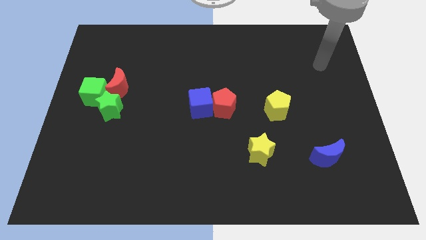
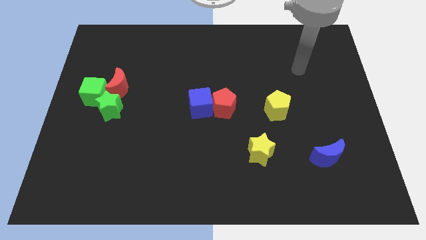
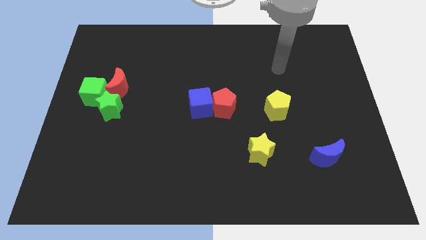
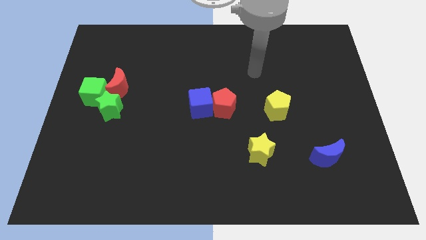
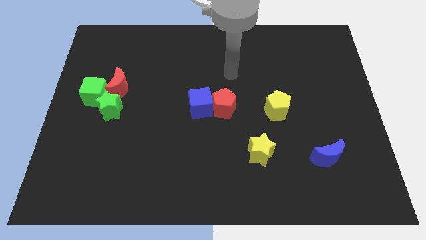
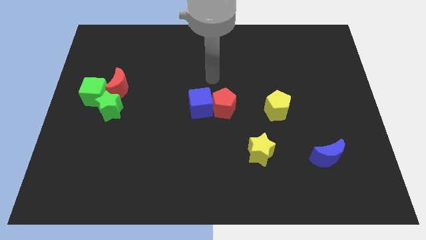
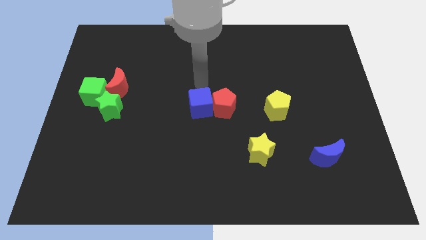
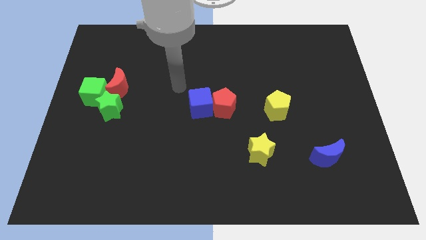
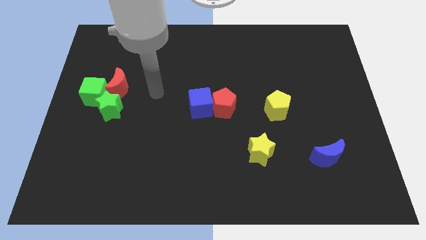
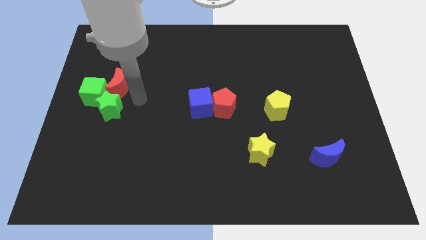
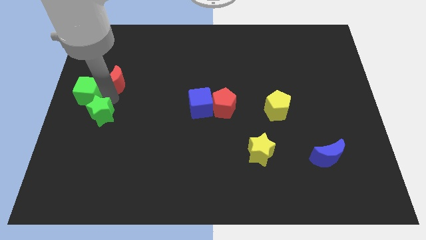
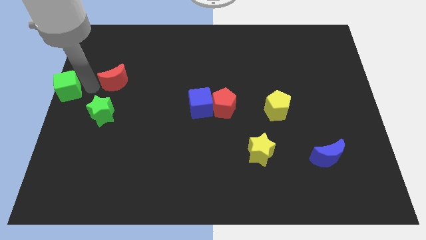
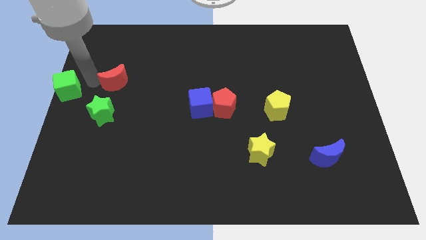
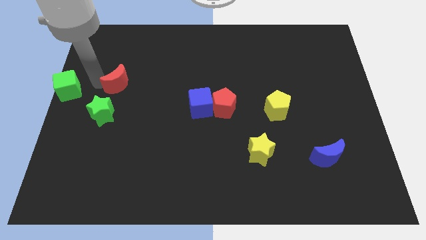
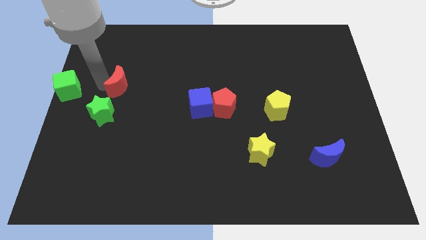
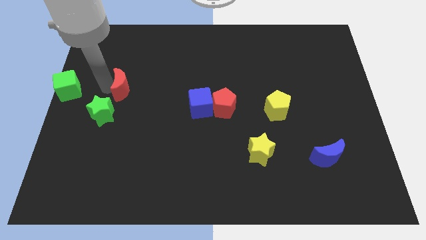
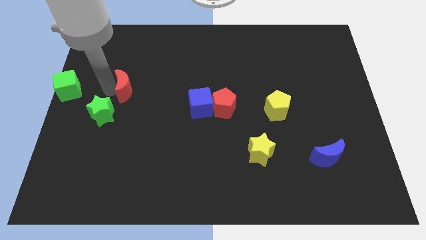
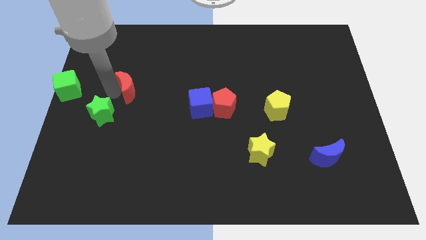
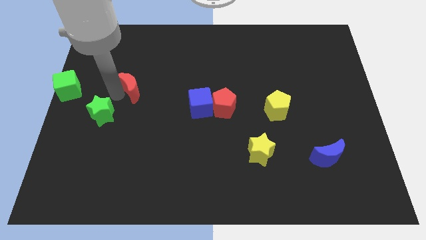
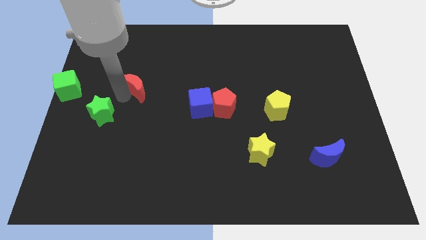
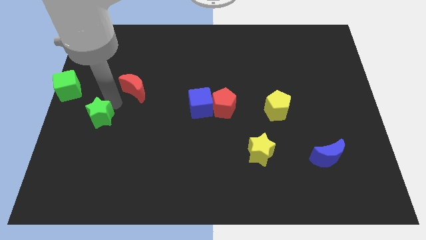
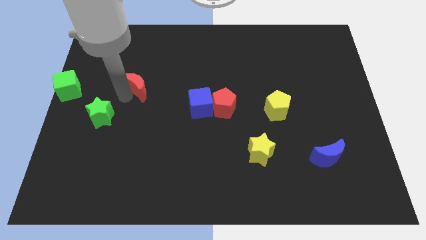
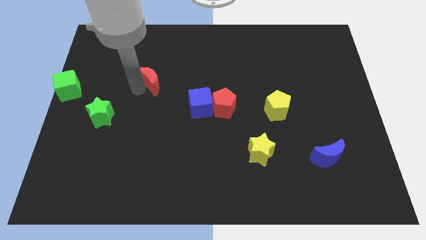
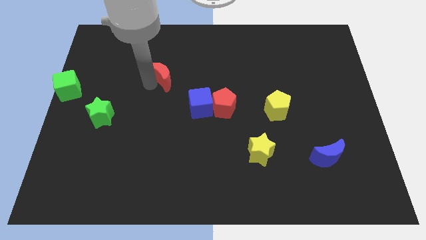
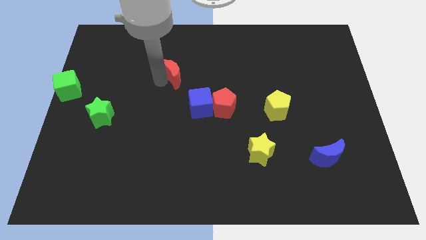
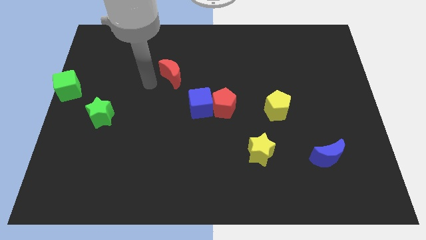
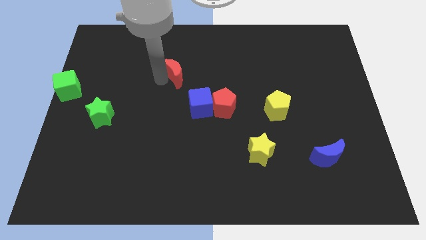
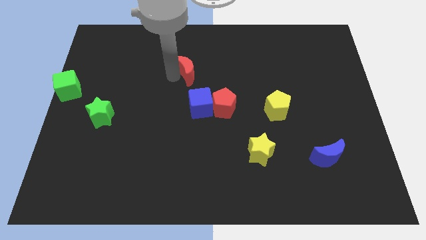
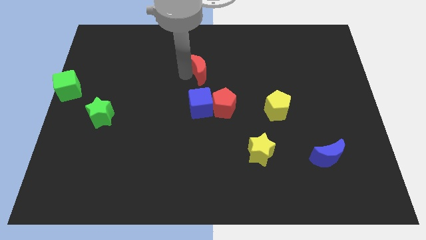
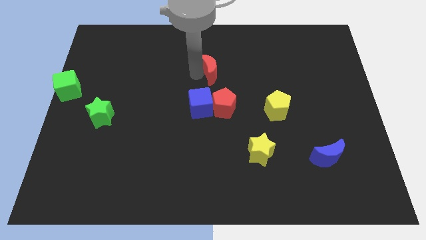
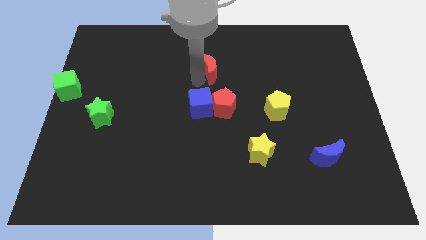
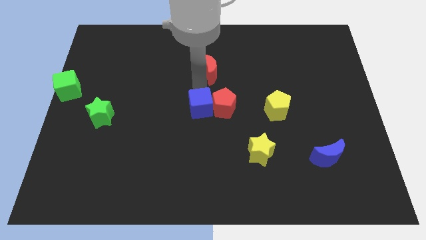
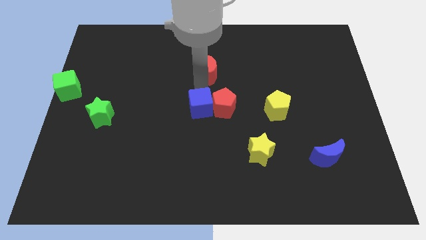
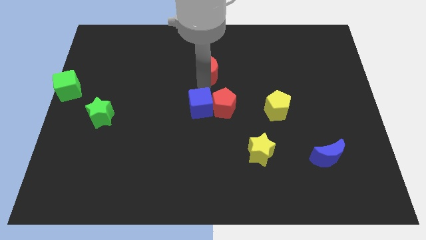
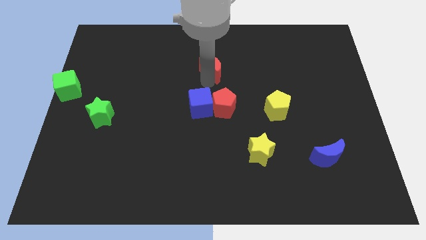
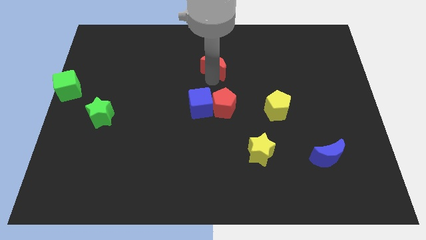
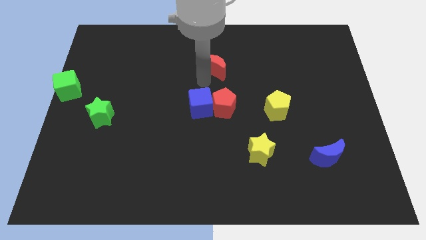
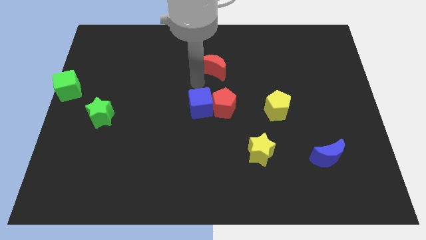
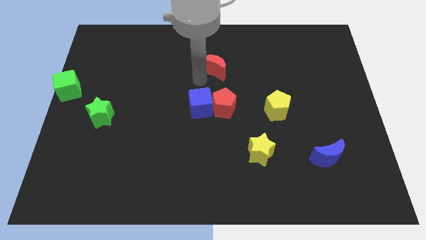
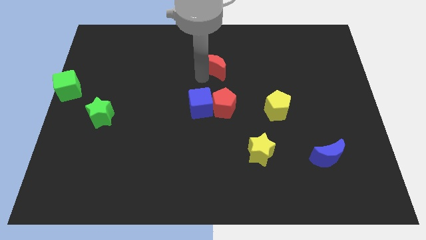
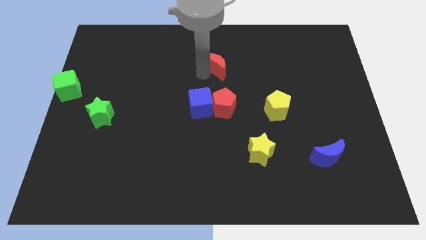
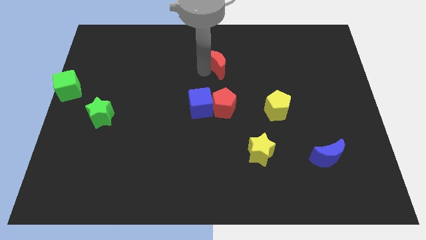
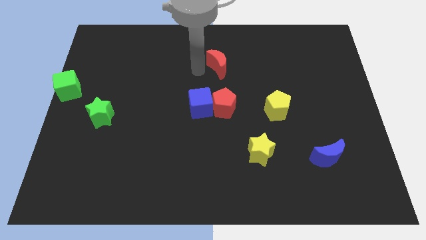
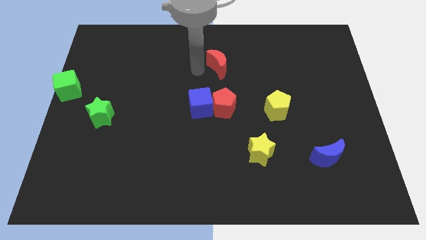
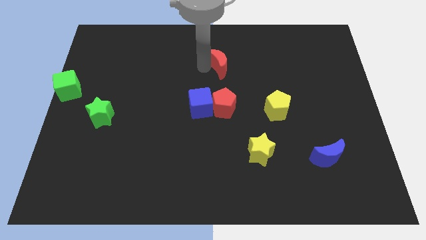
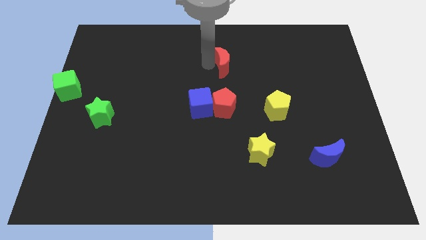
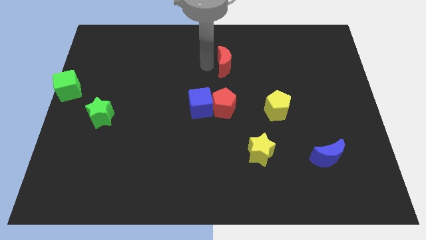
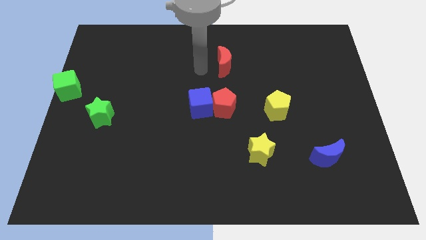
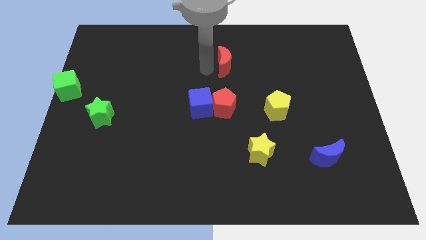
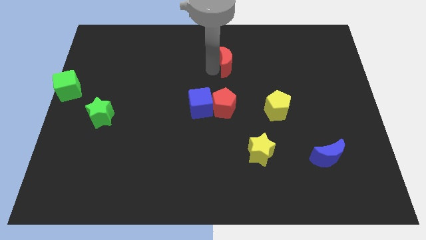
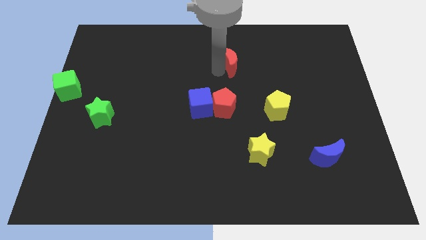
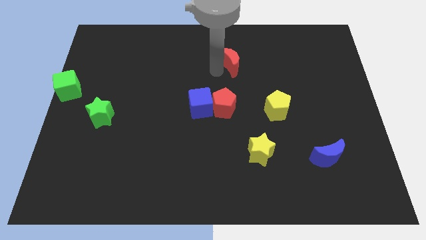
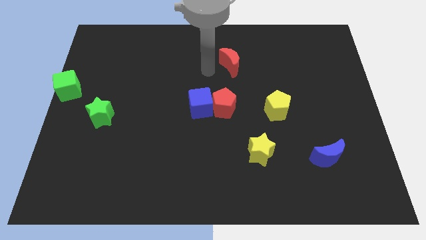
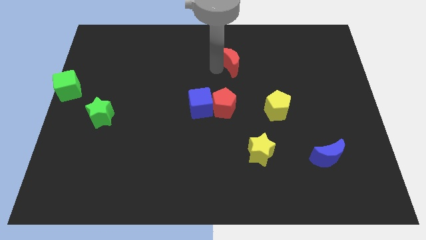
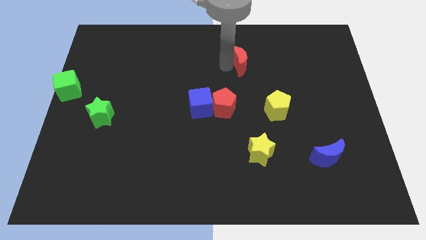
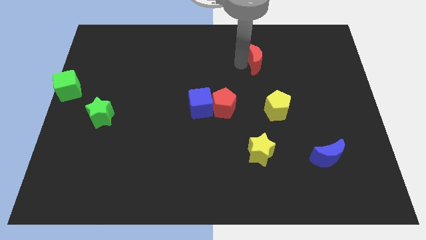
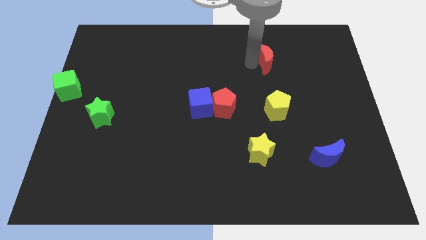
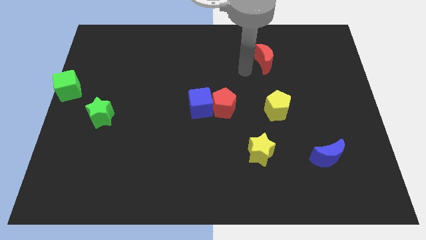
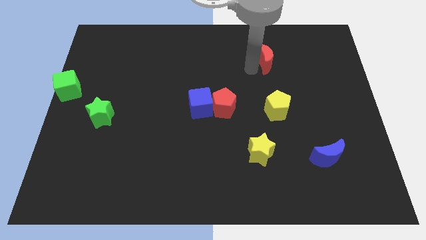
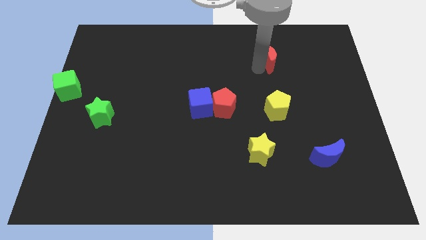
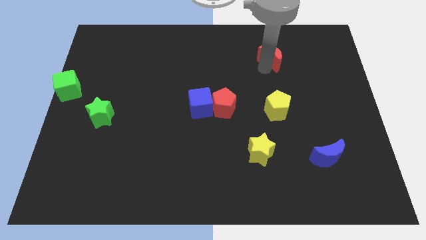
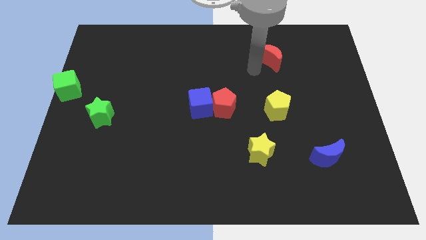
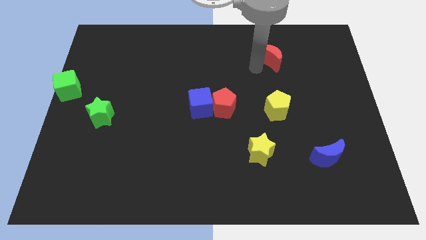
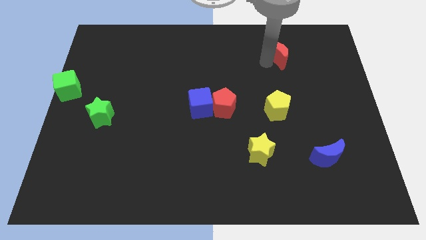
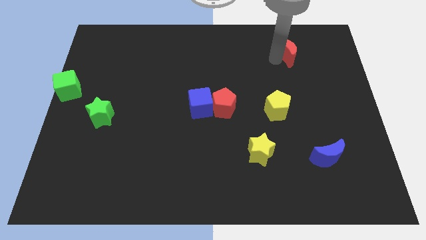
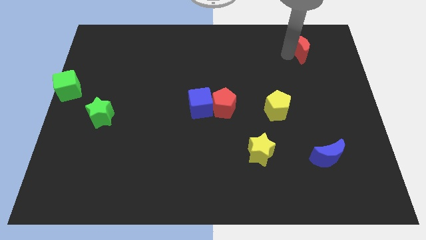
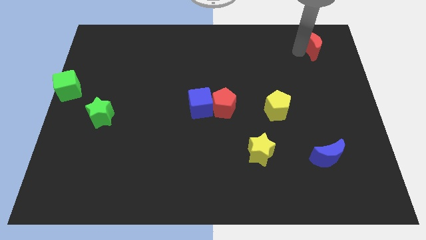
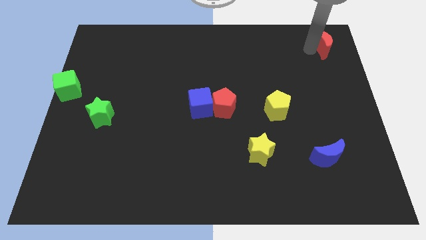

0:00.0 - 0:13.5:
put the red moon to the top right of the board

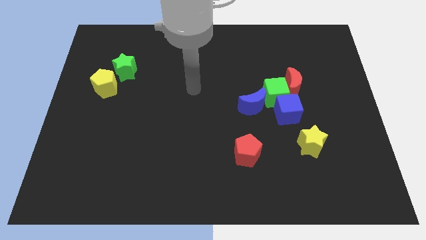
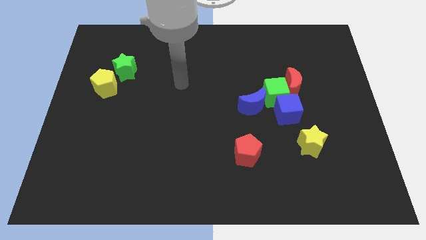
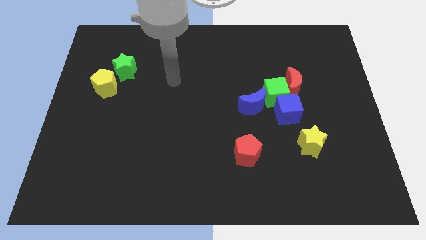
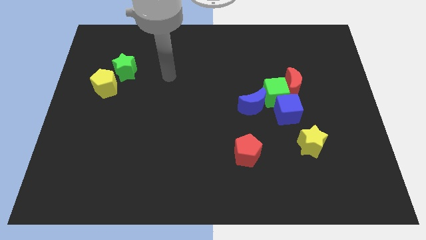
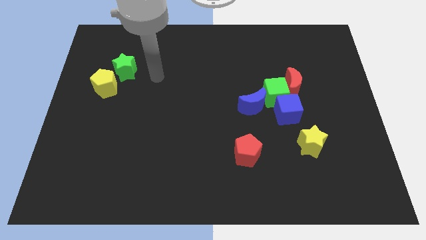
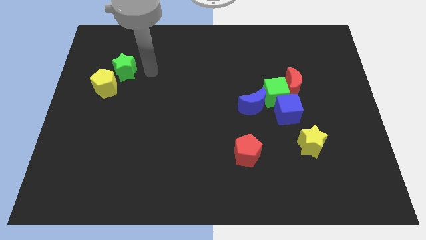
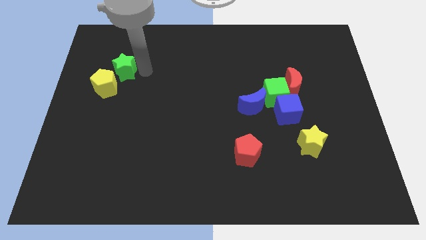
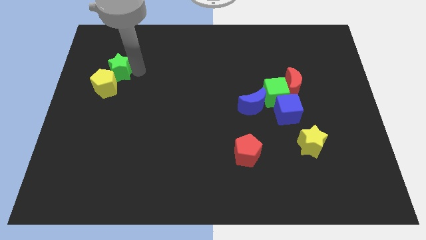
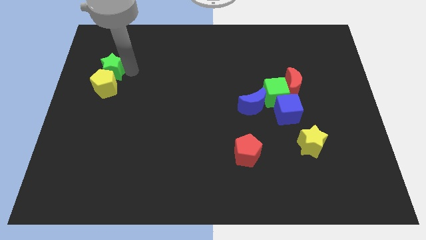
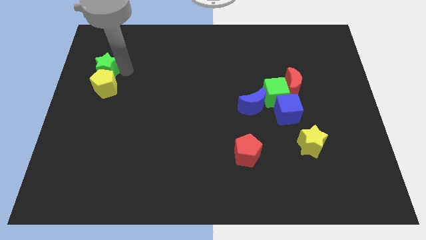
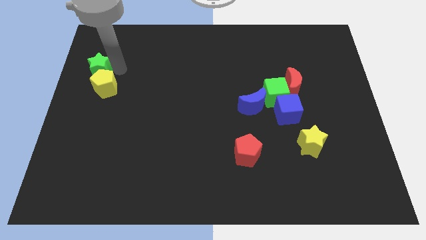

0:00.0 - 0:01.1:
push the green star to the left side of the board
